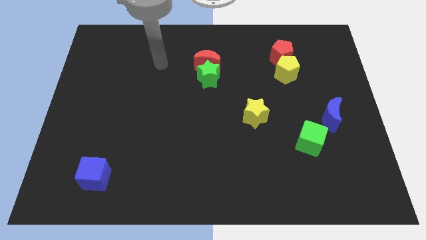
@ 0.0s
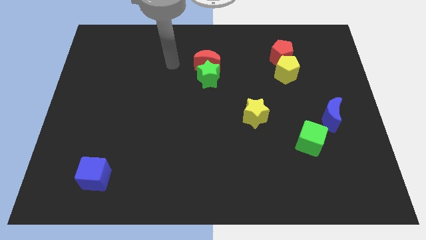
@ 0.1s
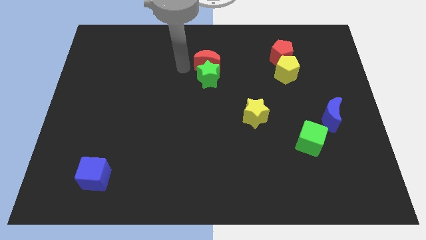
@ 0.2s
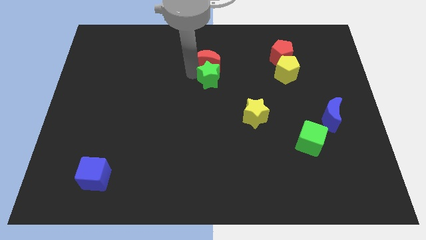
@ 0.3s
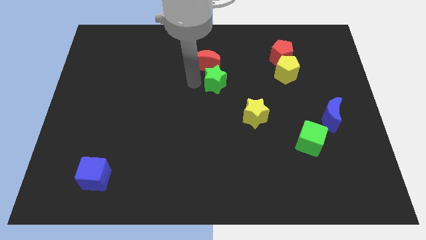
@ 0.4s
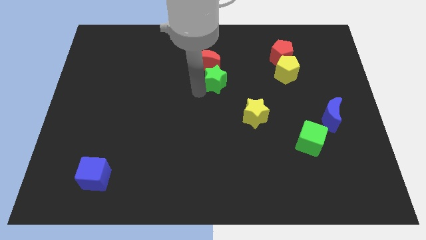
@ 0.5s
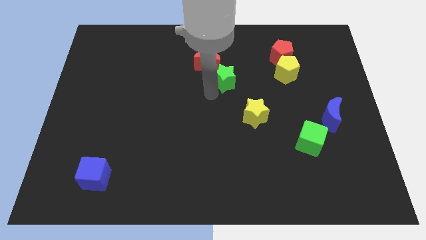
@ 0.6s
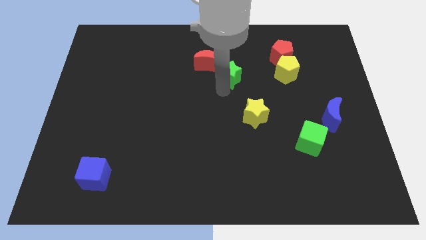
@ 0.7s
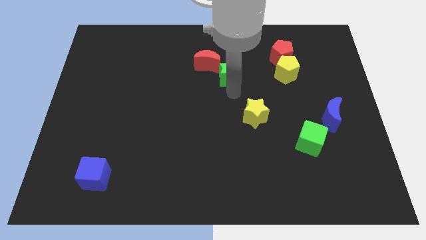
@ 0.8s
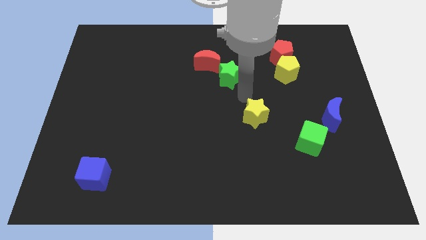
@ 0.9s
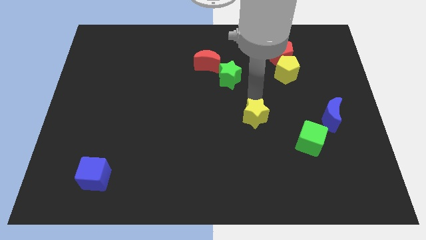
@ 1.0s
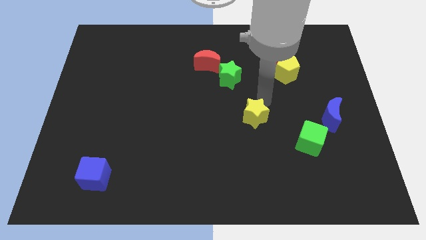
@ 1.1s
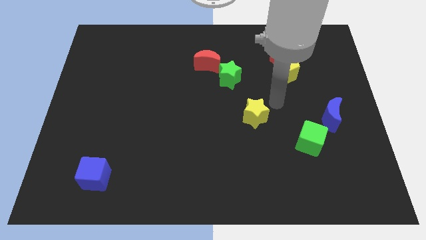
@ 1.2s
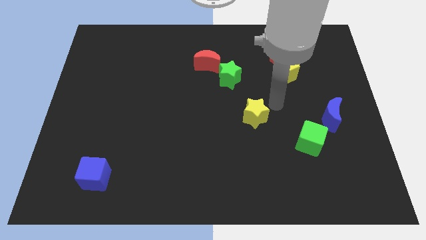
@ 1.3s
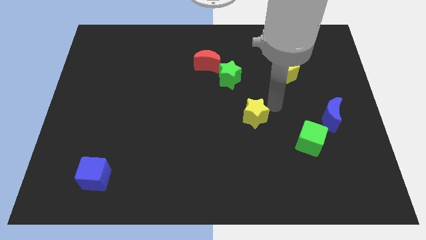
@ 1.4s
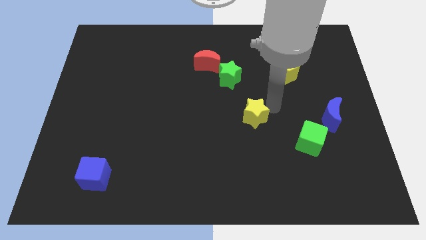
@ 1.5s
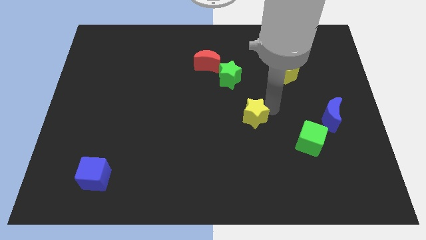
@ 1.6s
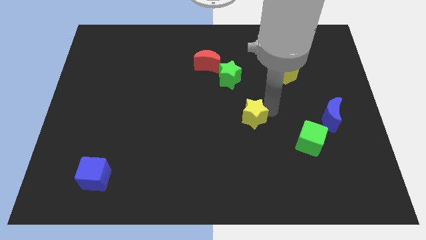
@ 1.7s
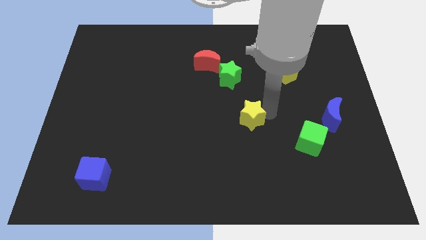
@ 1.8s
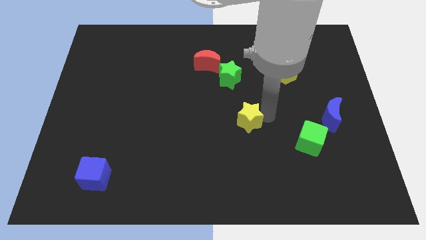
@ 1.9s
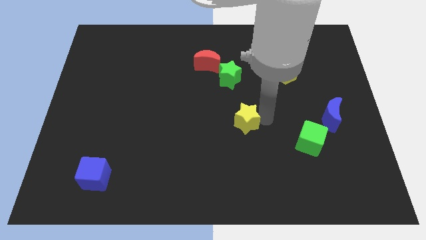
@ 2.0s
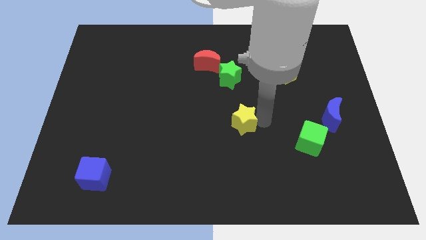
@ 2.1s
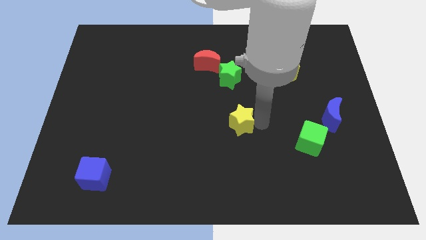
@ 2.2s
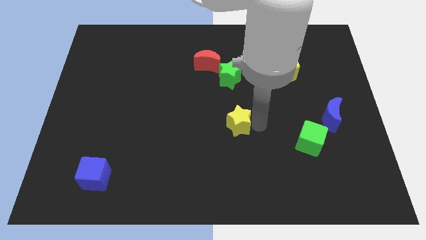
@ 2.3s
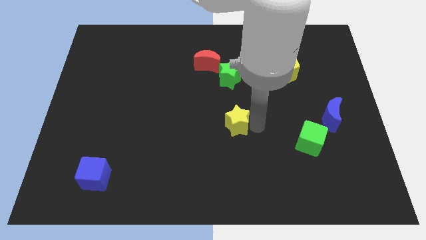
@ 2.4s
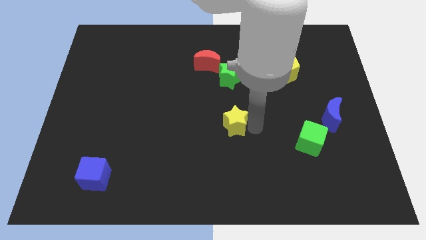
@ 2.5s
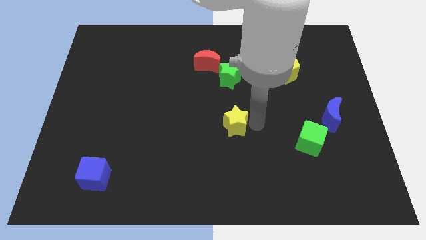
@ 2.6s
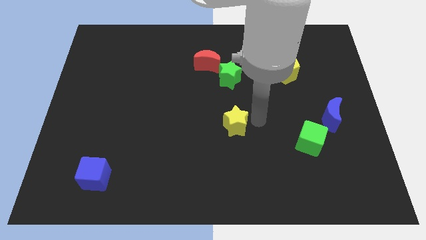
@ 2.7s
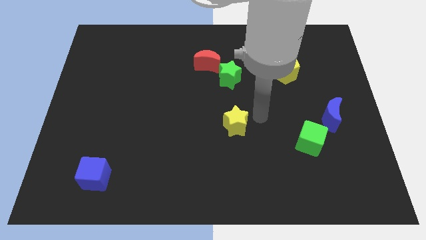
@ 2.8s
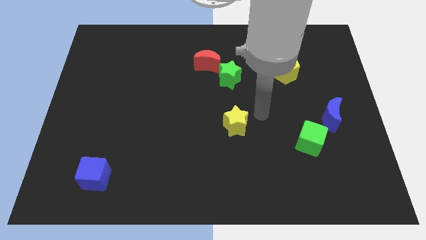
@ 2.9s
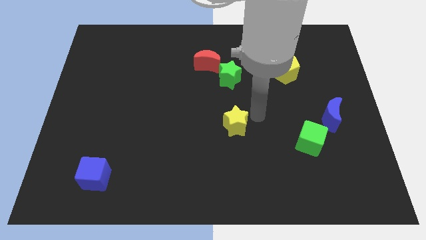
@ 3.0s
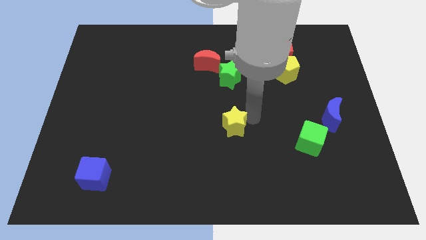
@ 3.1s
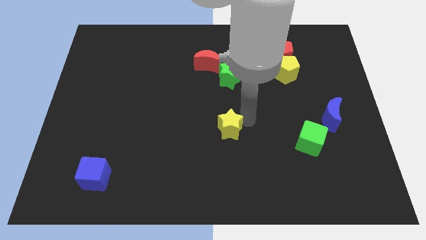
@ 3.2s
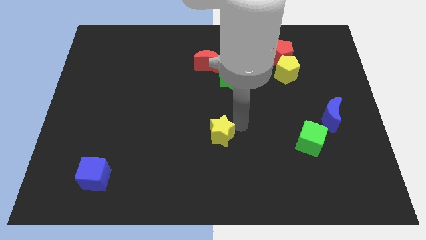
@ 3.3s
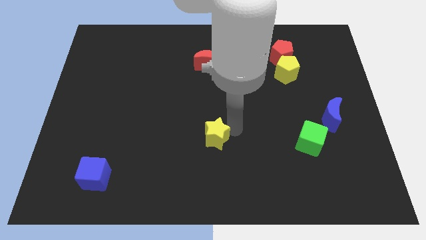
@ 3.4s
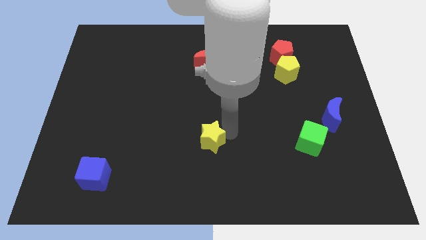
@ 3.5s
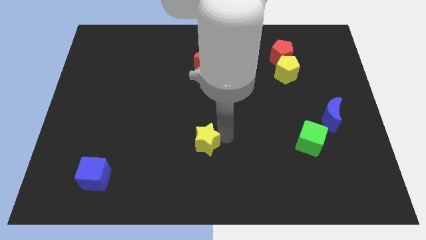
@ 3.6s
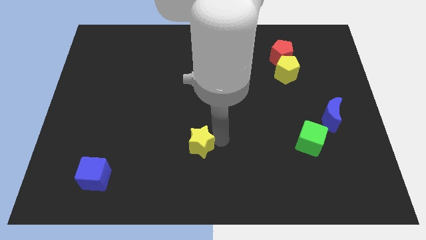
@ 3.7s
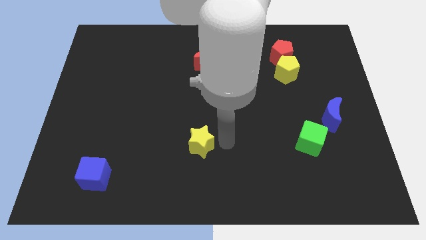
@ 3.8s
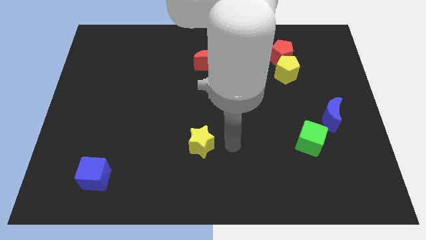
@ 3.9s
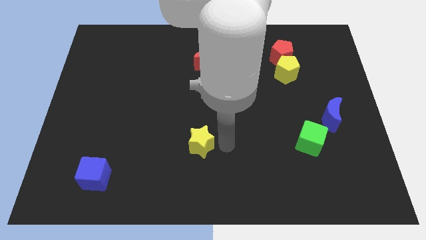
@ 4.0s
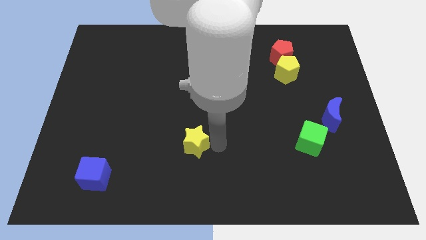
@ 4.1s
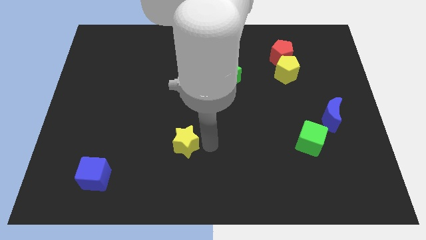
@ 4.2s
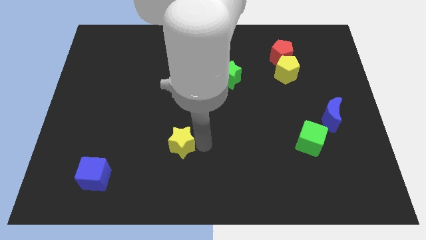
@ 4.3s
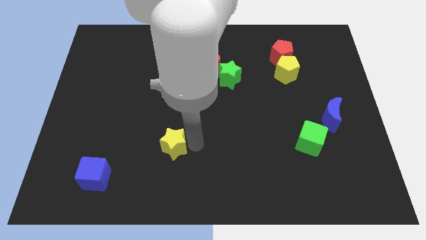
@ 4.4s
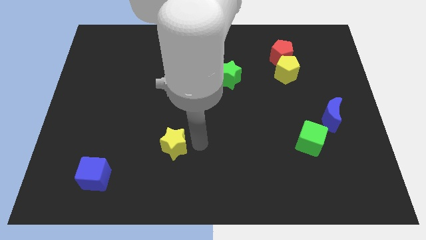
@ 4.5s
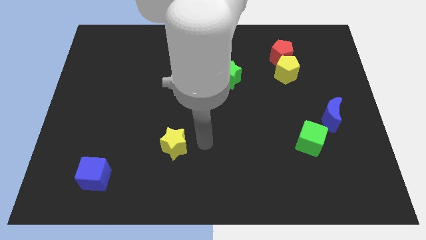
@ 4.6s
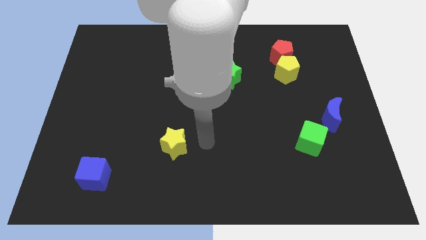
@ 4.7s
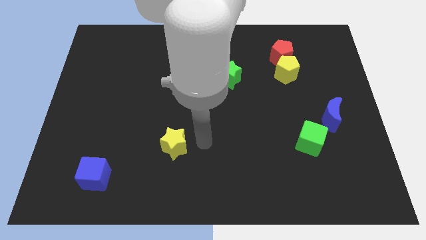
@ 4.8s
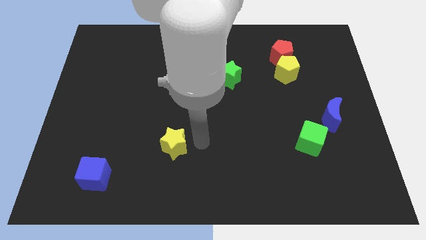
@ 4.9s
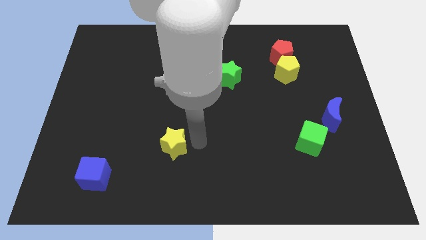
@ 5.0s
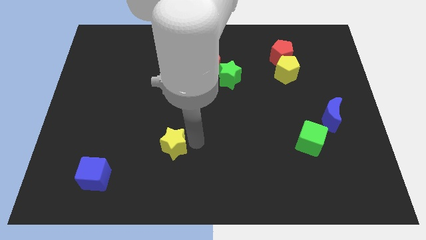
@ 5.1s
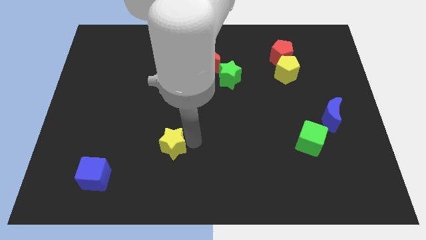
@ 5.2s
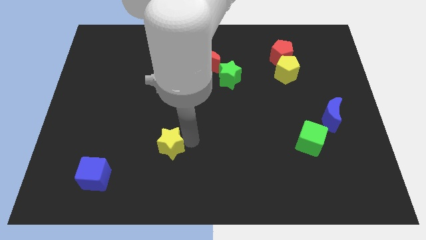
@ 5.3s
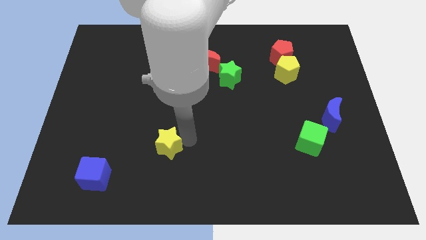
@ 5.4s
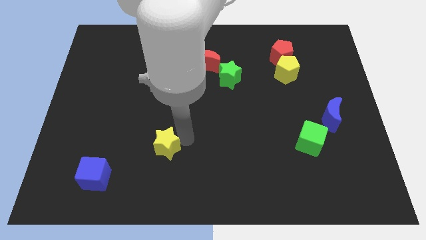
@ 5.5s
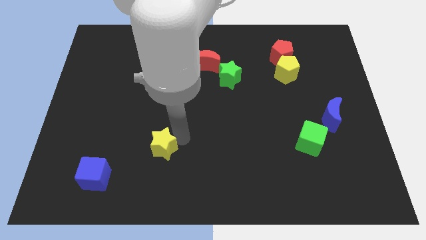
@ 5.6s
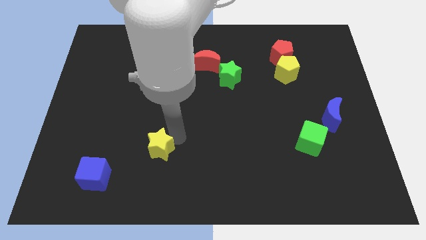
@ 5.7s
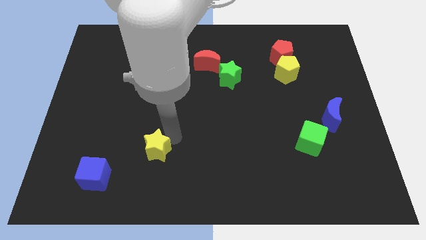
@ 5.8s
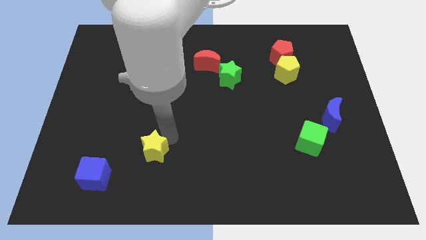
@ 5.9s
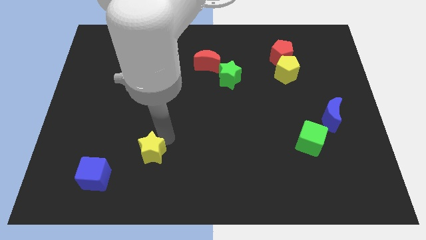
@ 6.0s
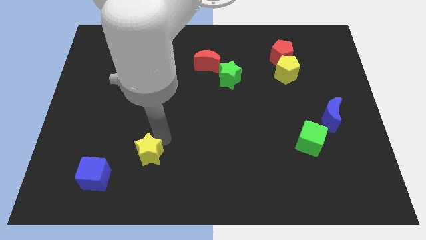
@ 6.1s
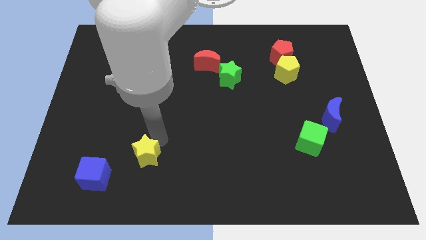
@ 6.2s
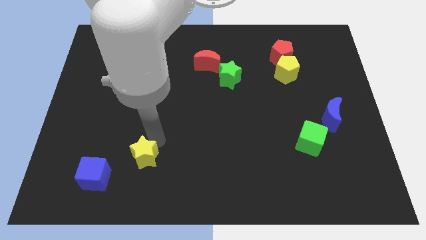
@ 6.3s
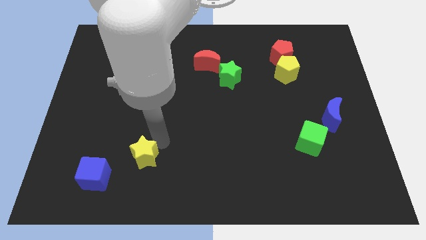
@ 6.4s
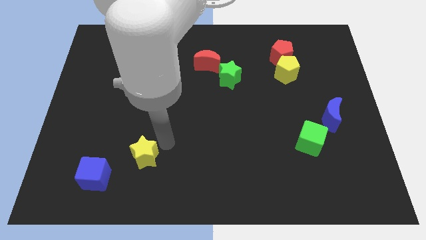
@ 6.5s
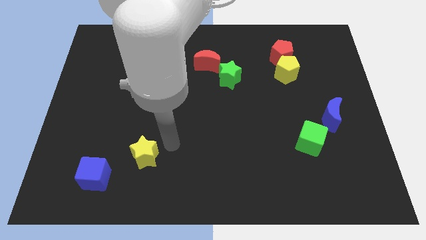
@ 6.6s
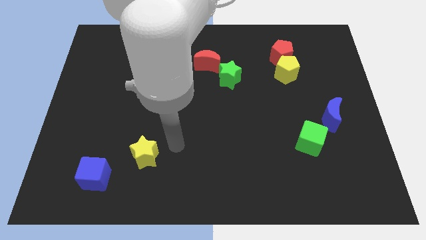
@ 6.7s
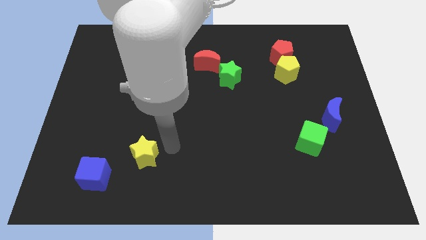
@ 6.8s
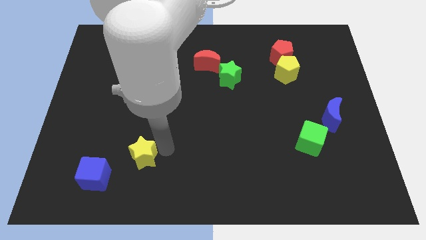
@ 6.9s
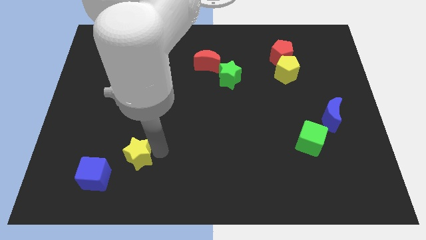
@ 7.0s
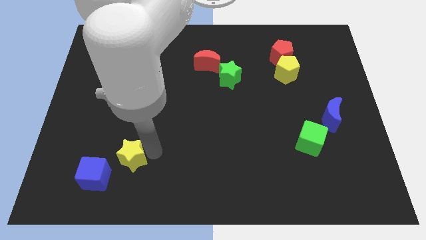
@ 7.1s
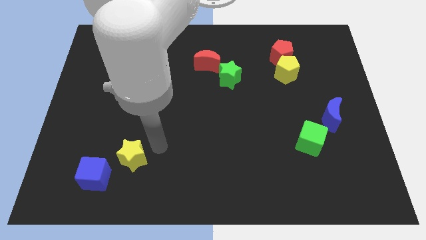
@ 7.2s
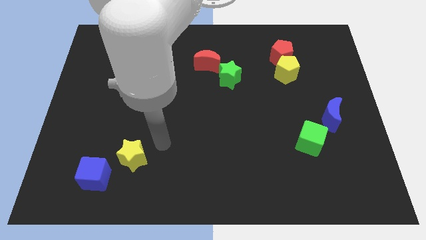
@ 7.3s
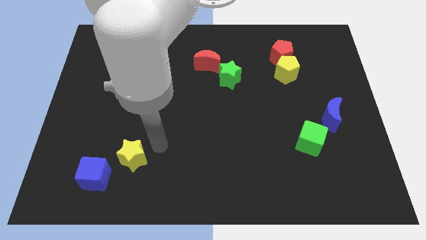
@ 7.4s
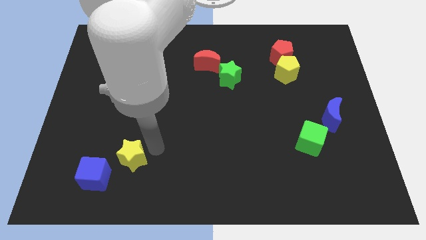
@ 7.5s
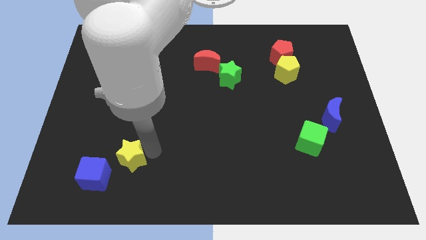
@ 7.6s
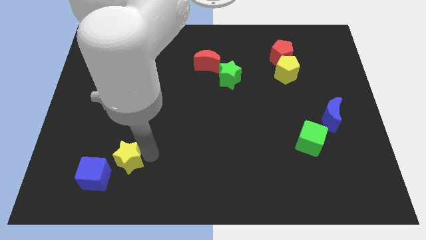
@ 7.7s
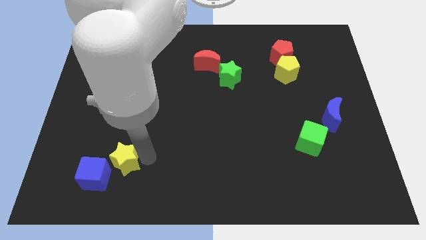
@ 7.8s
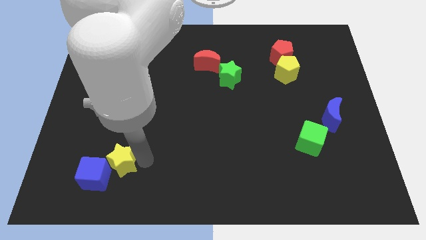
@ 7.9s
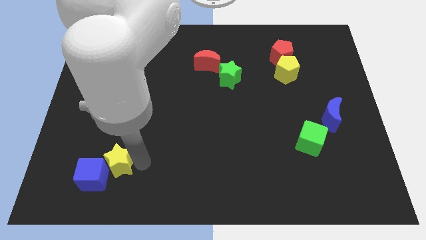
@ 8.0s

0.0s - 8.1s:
put the yellow star to the blue cube
